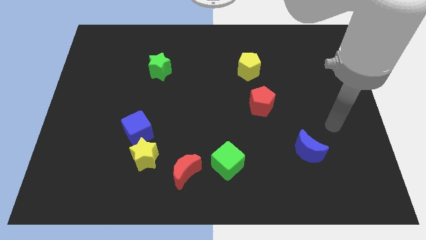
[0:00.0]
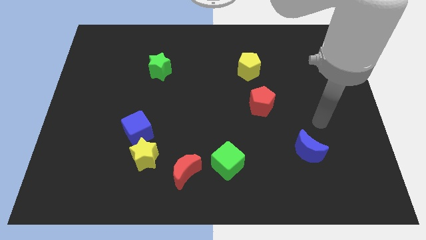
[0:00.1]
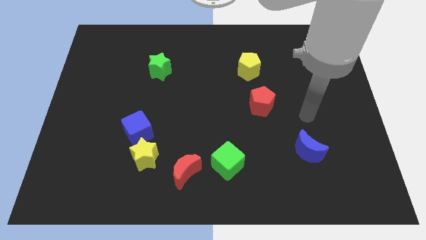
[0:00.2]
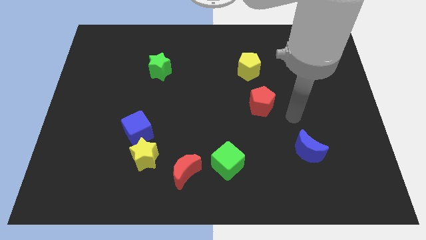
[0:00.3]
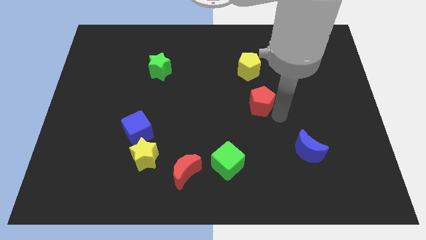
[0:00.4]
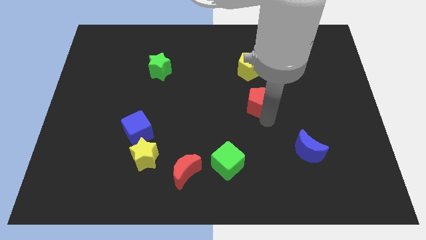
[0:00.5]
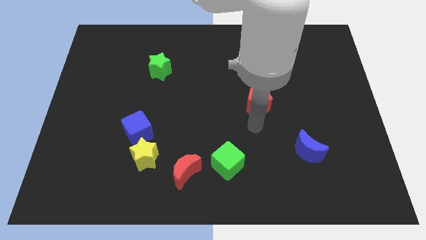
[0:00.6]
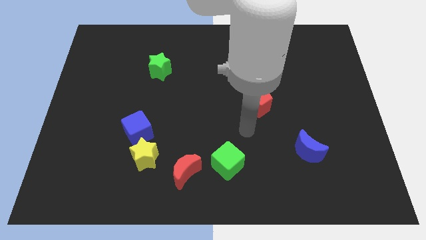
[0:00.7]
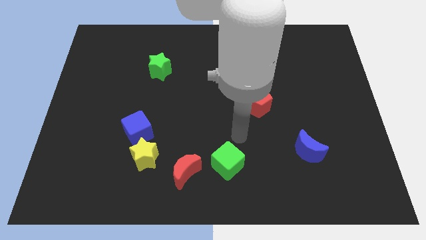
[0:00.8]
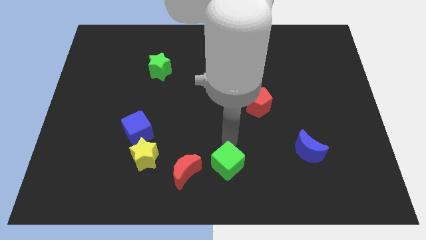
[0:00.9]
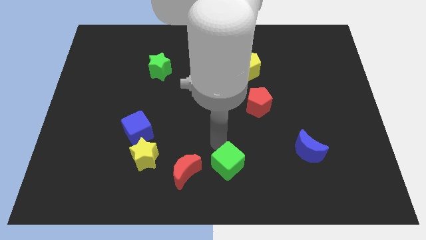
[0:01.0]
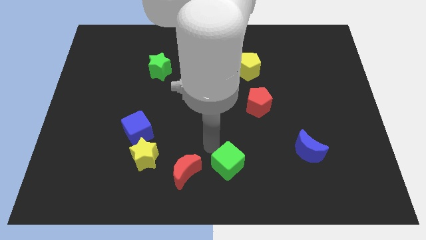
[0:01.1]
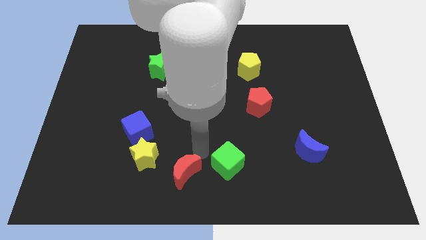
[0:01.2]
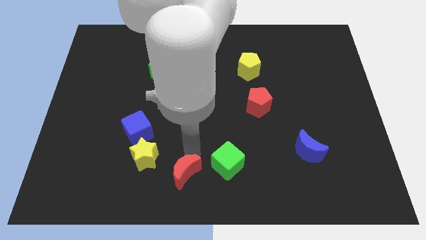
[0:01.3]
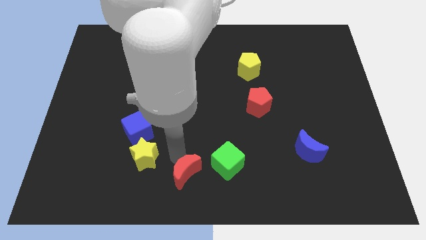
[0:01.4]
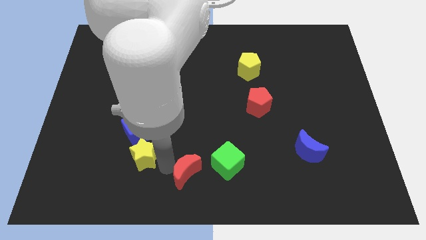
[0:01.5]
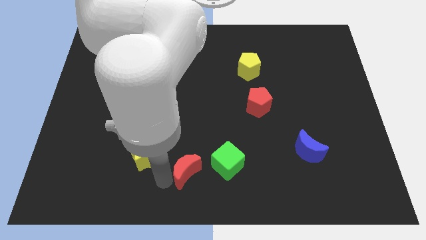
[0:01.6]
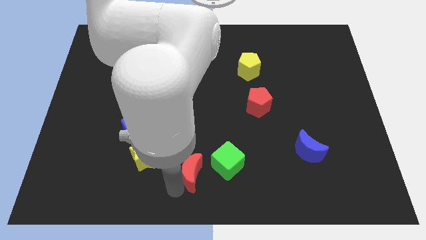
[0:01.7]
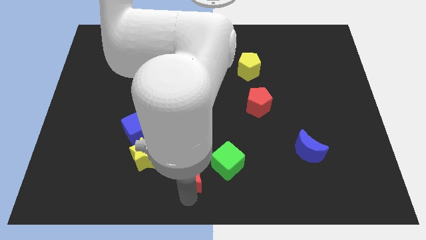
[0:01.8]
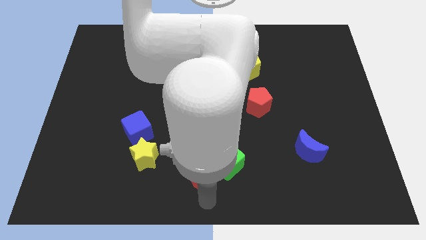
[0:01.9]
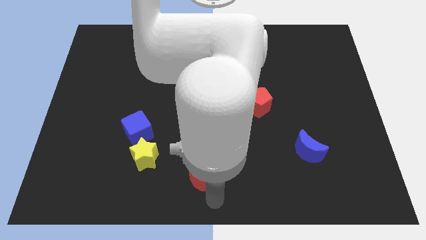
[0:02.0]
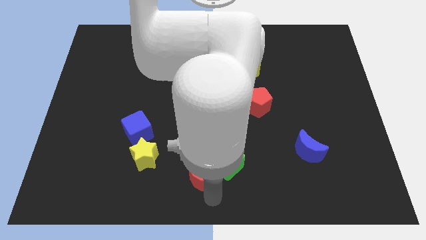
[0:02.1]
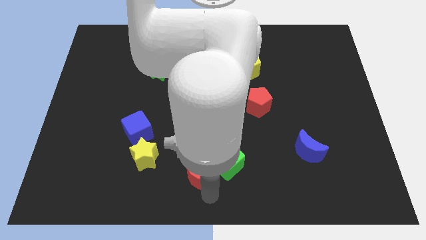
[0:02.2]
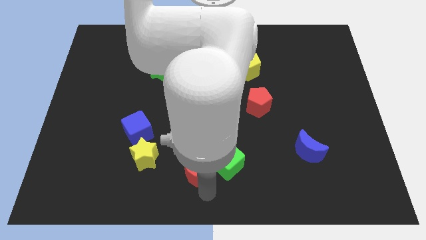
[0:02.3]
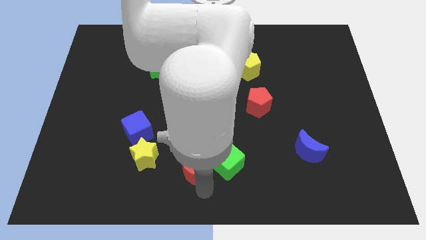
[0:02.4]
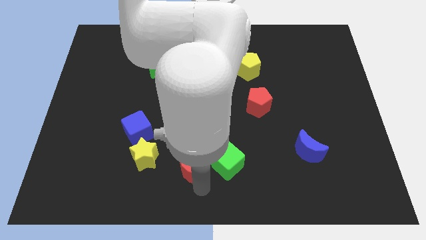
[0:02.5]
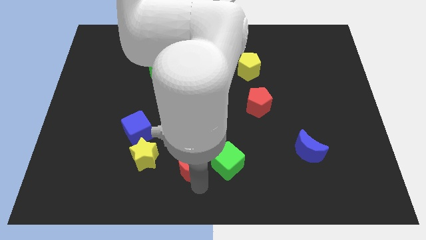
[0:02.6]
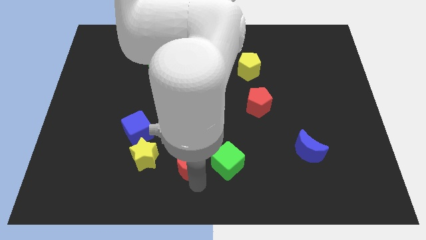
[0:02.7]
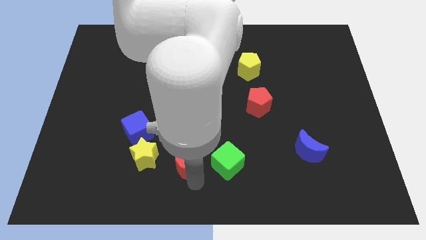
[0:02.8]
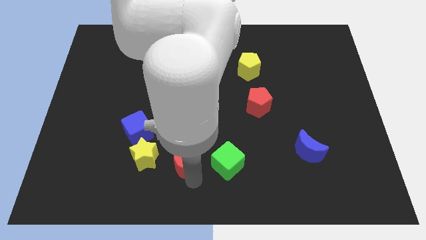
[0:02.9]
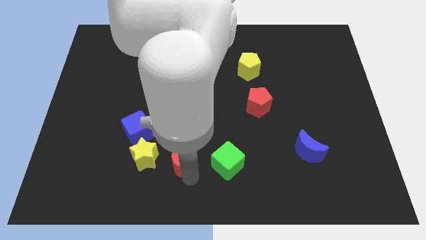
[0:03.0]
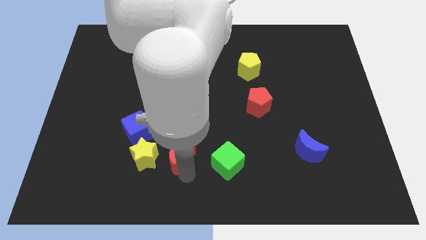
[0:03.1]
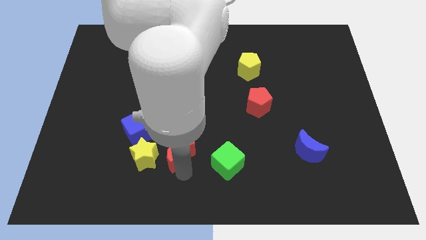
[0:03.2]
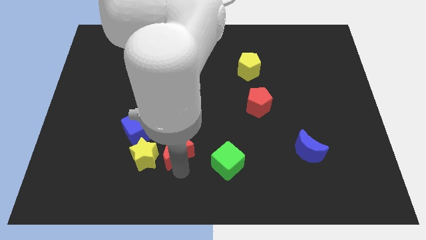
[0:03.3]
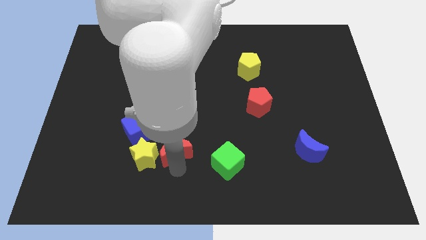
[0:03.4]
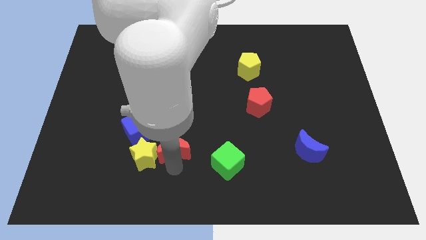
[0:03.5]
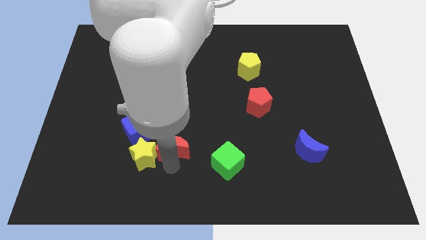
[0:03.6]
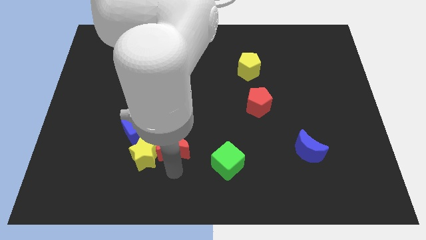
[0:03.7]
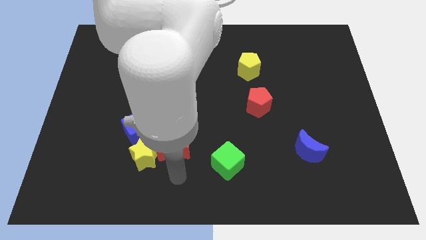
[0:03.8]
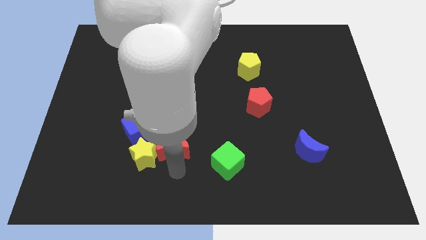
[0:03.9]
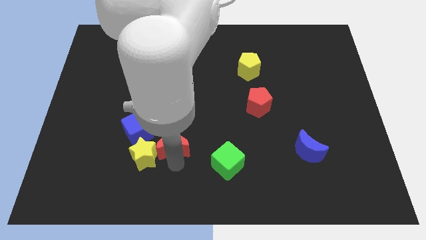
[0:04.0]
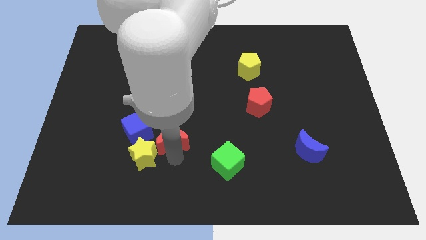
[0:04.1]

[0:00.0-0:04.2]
move the red moon slightly diagonally upwards and left

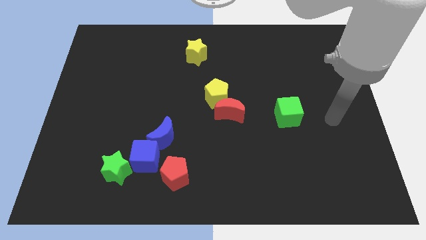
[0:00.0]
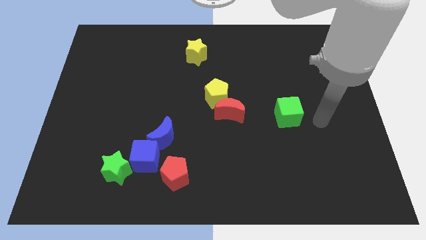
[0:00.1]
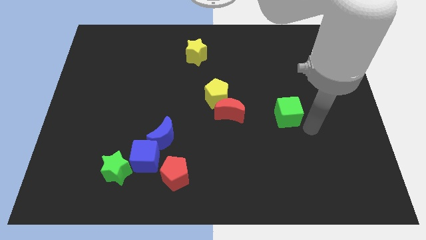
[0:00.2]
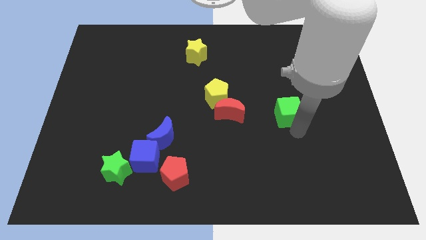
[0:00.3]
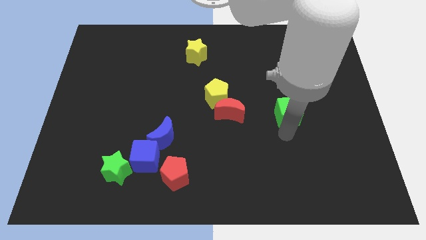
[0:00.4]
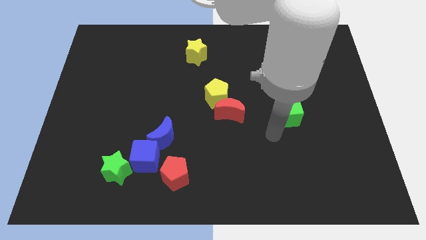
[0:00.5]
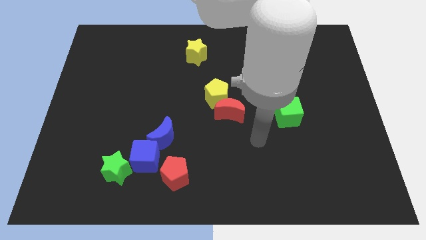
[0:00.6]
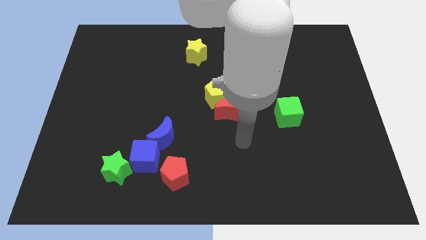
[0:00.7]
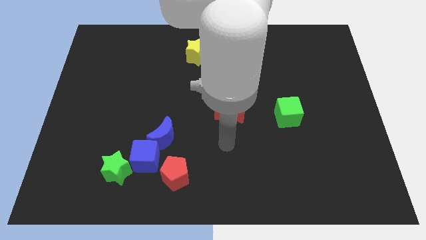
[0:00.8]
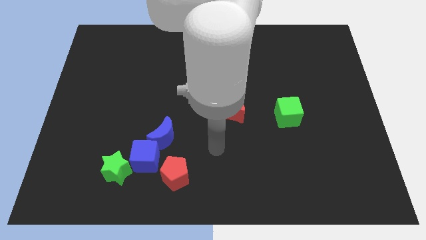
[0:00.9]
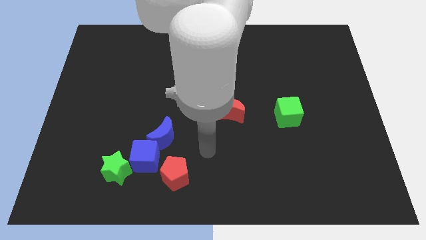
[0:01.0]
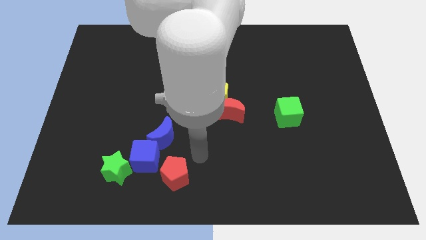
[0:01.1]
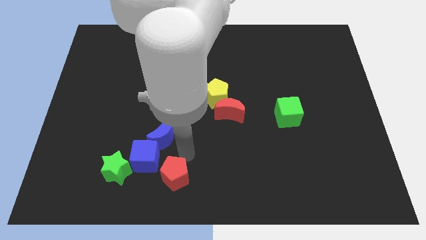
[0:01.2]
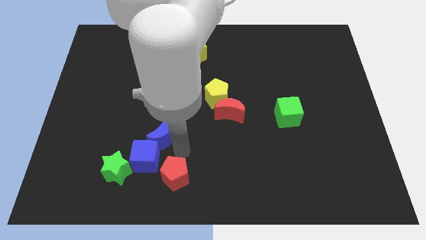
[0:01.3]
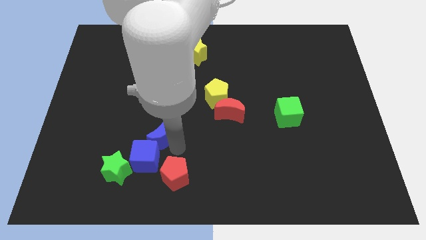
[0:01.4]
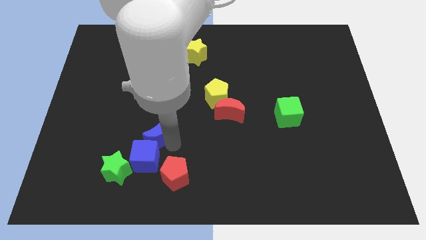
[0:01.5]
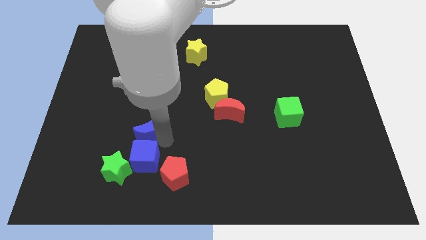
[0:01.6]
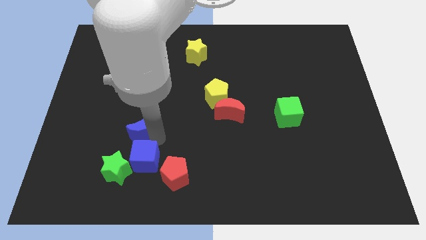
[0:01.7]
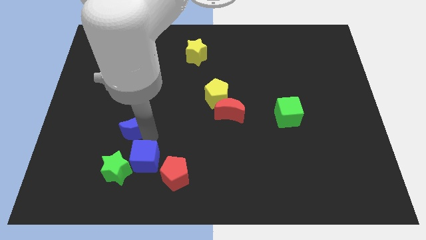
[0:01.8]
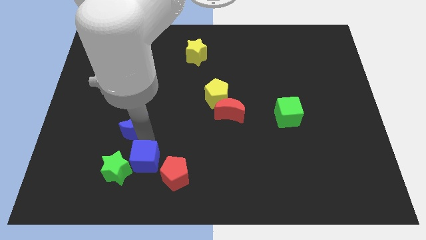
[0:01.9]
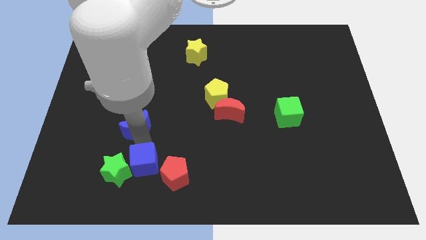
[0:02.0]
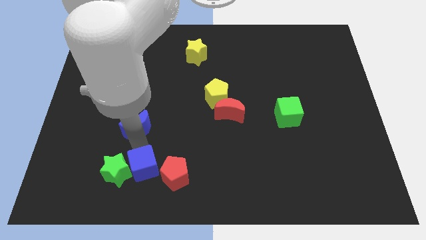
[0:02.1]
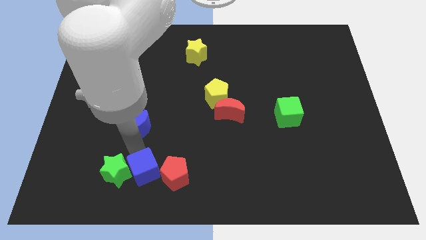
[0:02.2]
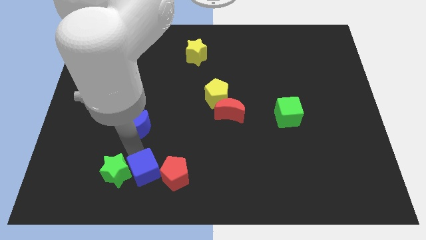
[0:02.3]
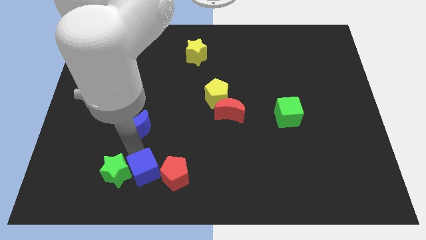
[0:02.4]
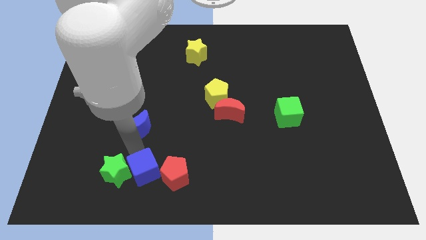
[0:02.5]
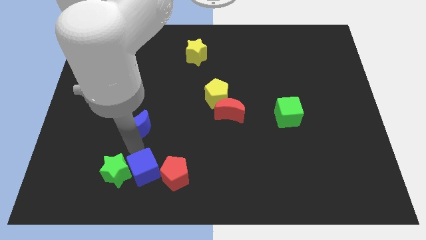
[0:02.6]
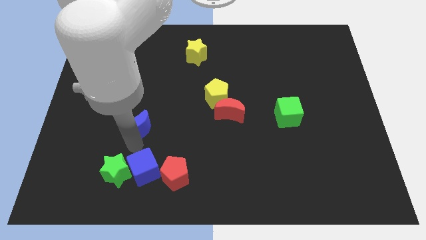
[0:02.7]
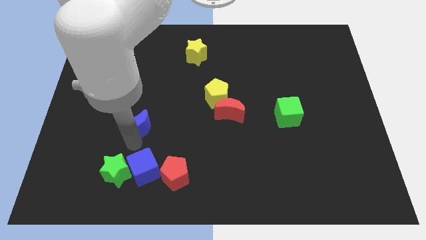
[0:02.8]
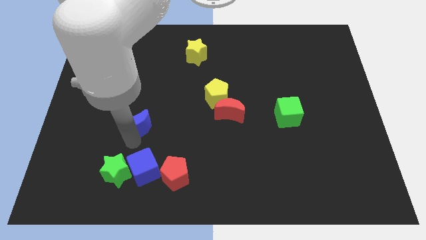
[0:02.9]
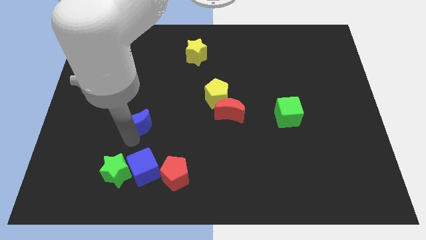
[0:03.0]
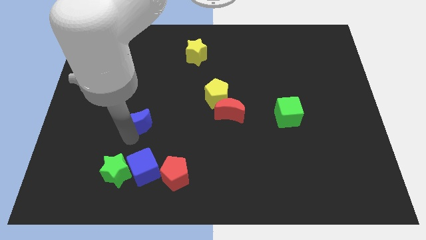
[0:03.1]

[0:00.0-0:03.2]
slide the blue moon upwards and to the left slightly

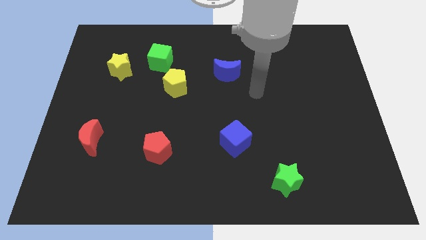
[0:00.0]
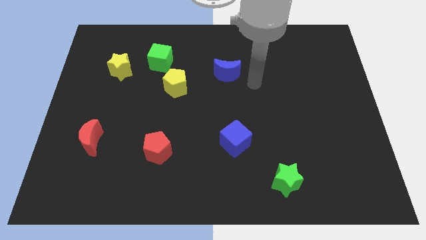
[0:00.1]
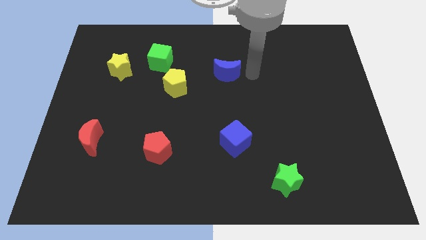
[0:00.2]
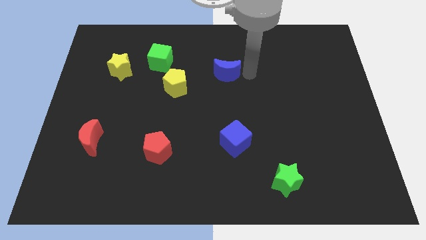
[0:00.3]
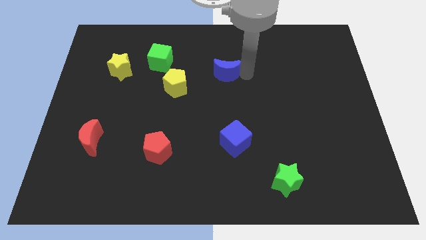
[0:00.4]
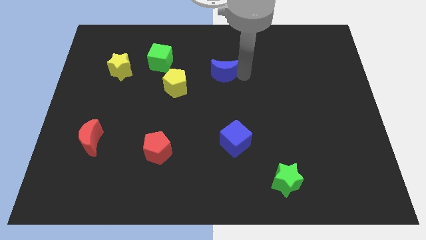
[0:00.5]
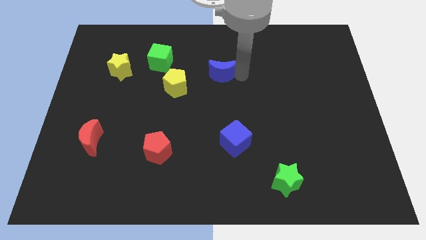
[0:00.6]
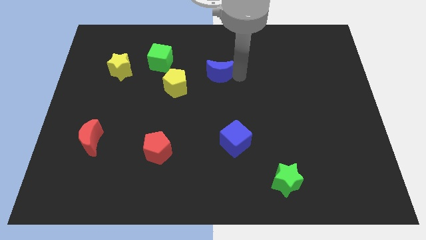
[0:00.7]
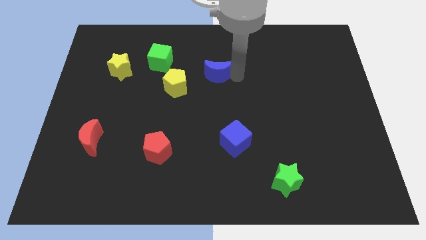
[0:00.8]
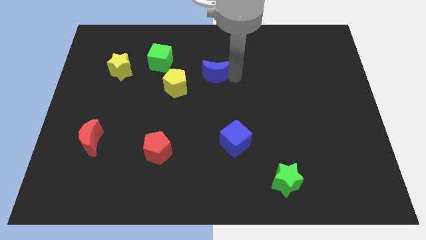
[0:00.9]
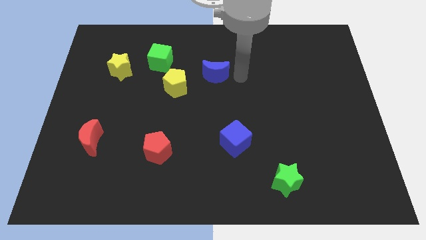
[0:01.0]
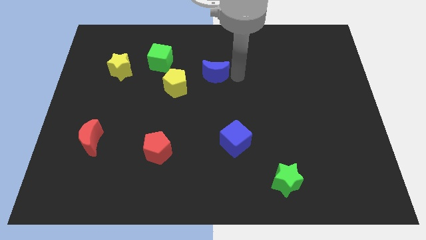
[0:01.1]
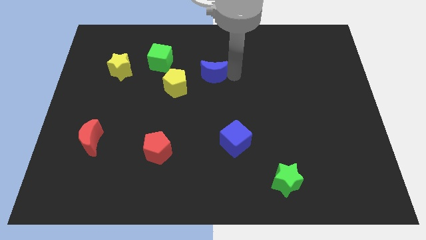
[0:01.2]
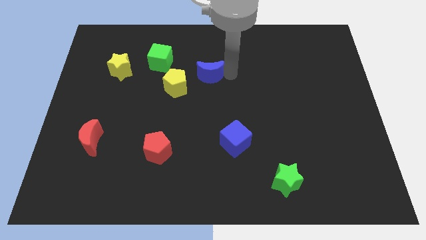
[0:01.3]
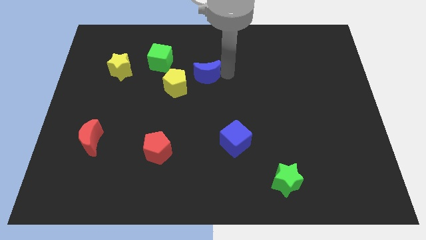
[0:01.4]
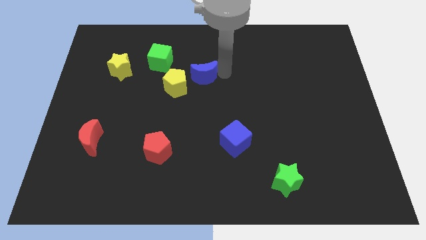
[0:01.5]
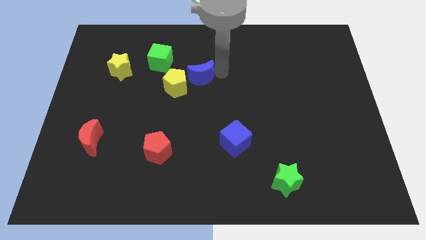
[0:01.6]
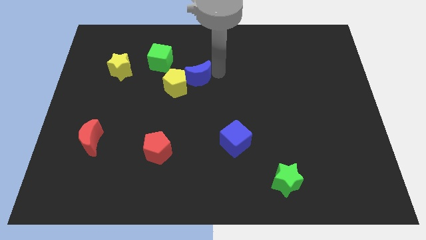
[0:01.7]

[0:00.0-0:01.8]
slightly push the blue moon to the left
